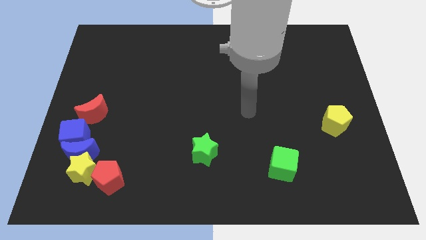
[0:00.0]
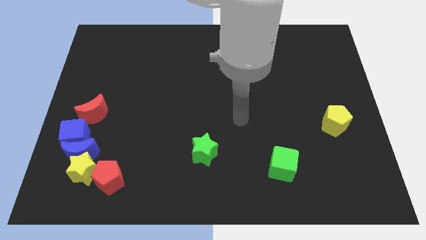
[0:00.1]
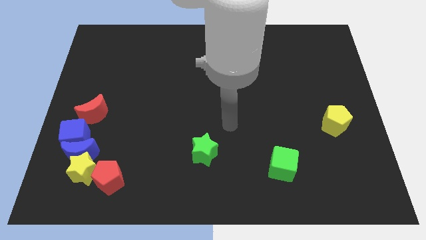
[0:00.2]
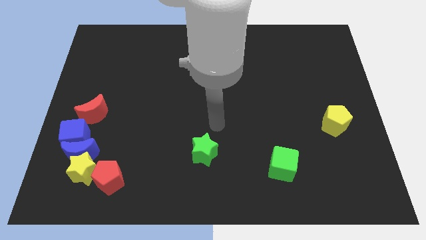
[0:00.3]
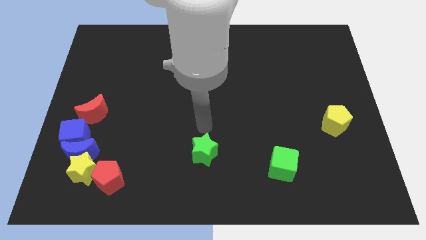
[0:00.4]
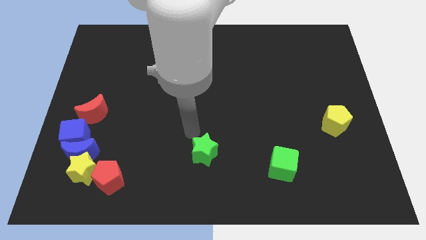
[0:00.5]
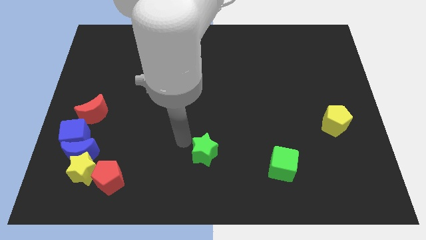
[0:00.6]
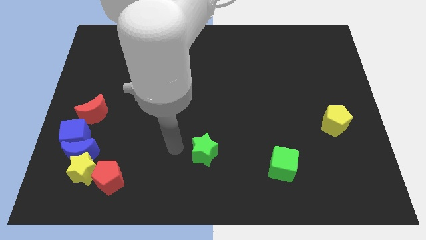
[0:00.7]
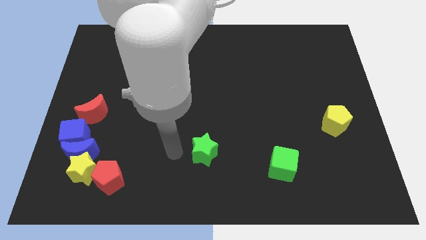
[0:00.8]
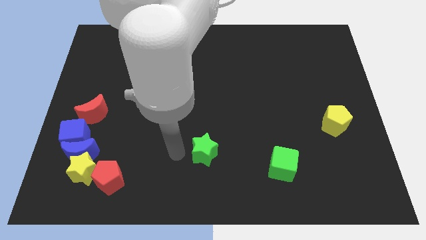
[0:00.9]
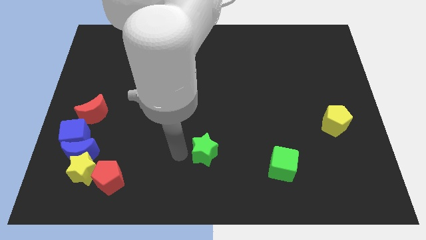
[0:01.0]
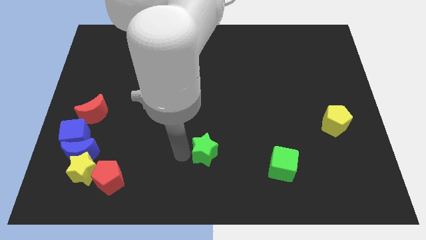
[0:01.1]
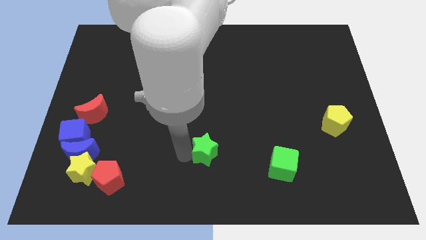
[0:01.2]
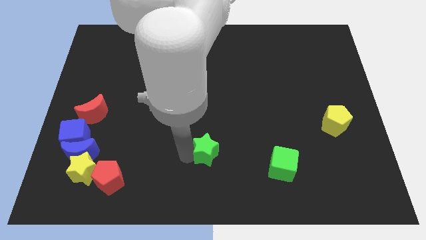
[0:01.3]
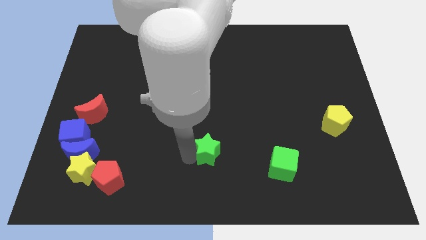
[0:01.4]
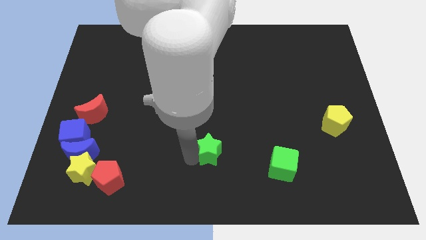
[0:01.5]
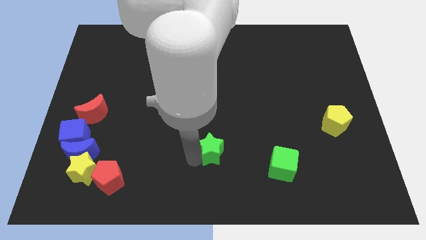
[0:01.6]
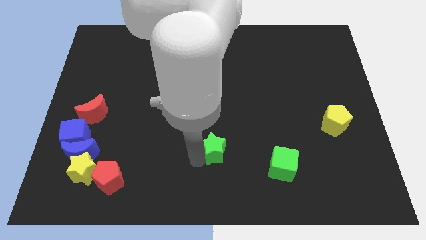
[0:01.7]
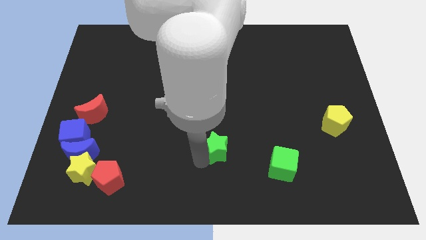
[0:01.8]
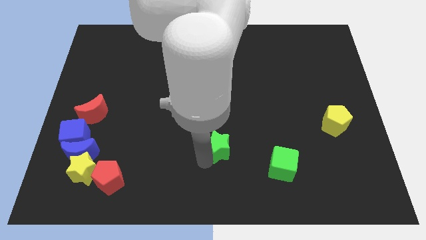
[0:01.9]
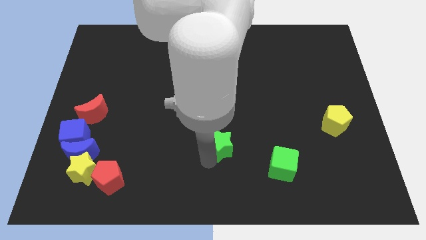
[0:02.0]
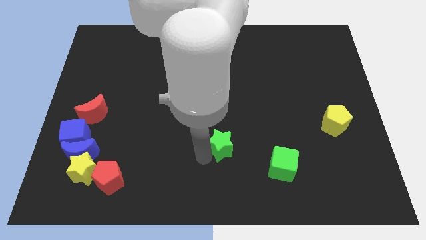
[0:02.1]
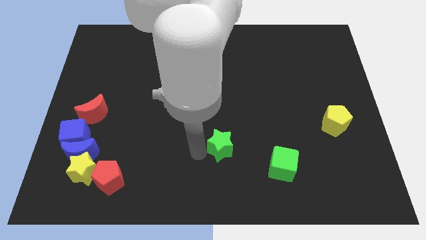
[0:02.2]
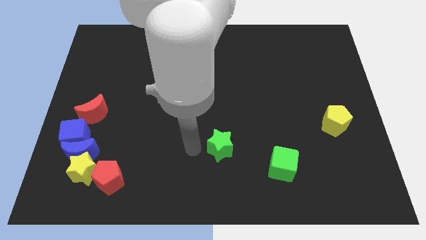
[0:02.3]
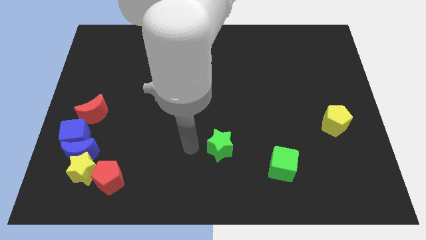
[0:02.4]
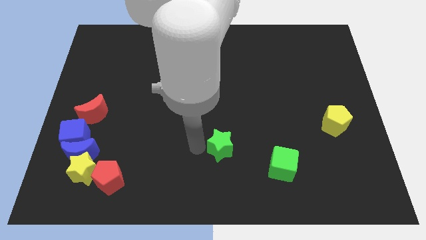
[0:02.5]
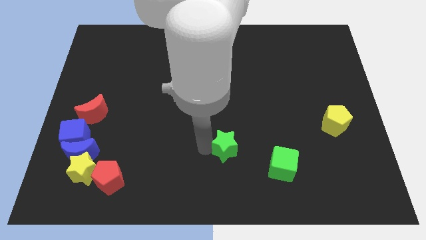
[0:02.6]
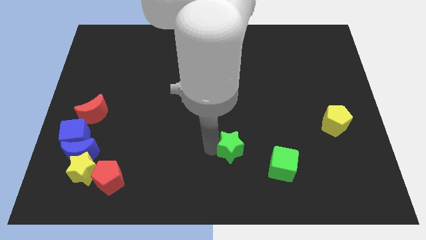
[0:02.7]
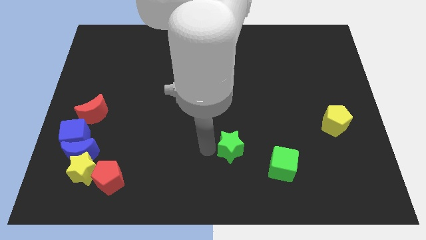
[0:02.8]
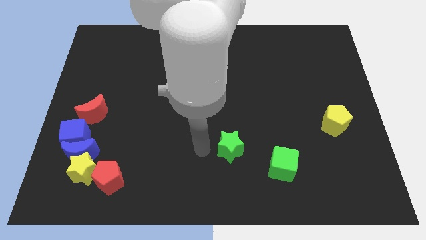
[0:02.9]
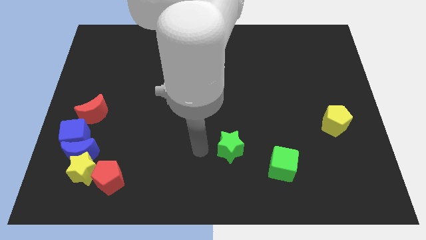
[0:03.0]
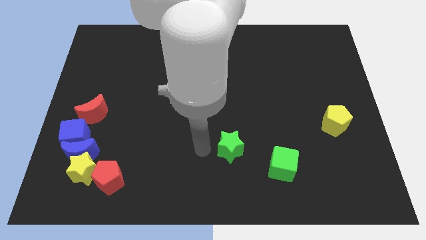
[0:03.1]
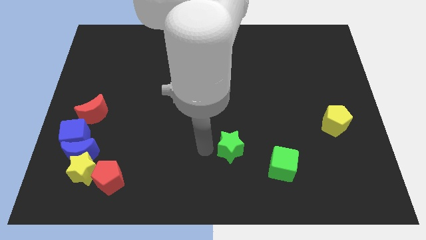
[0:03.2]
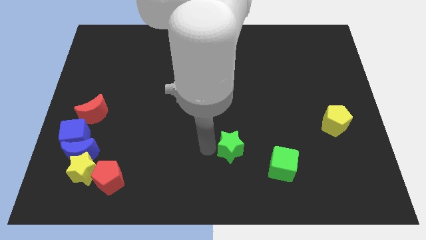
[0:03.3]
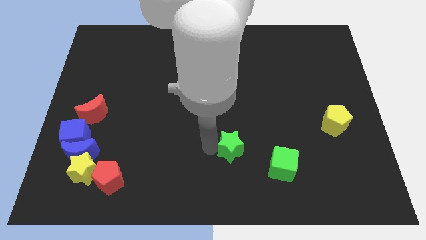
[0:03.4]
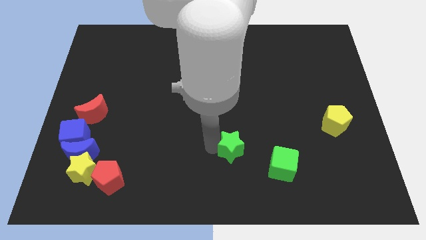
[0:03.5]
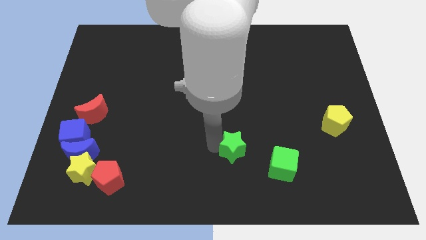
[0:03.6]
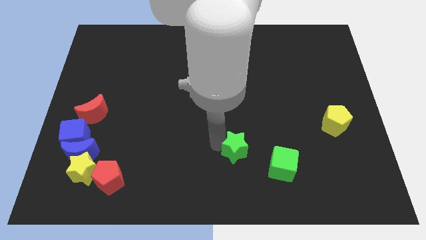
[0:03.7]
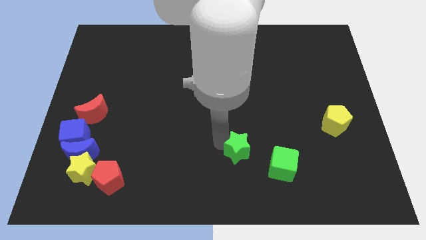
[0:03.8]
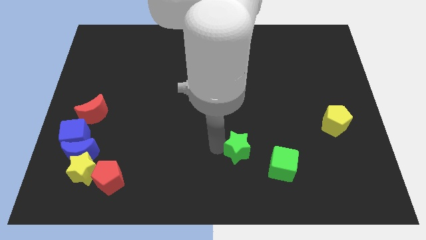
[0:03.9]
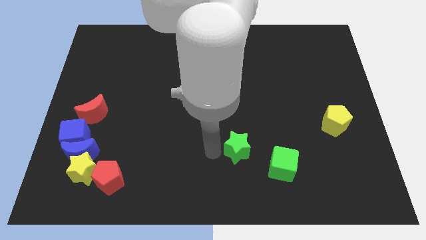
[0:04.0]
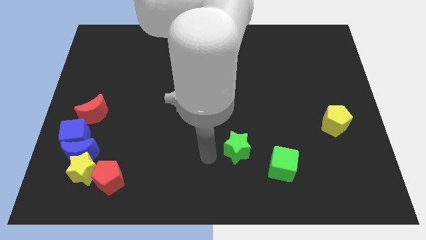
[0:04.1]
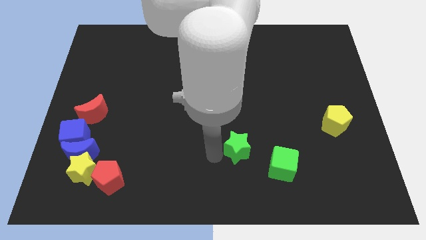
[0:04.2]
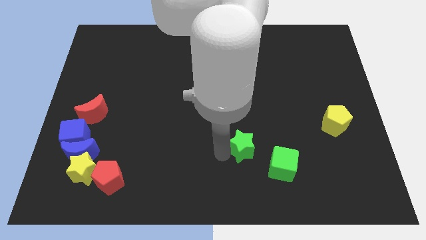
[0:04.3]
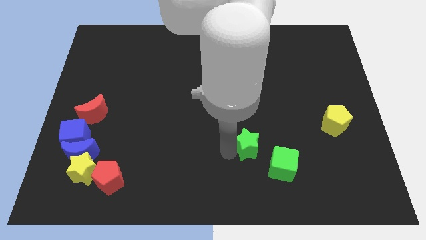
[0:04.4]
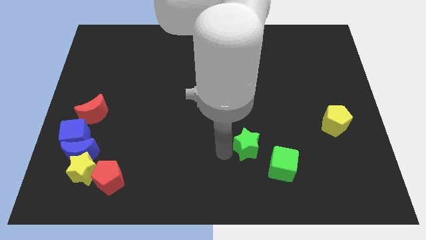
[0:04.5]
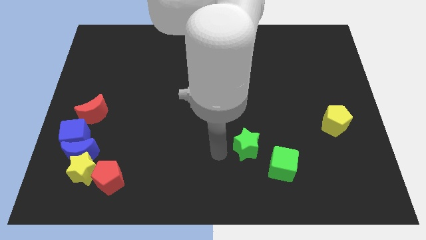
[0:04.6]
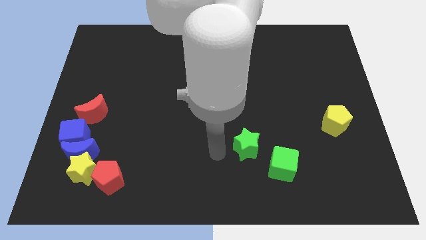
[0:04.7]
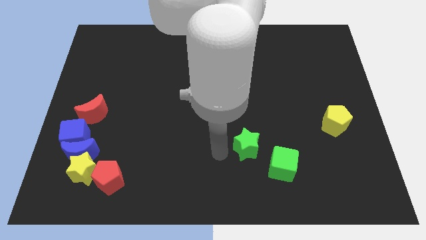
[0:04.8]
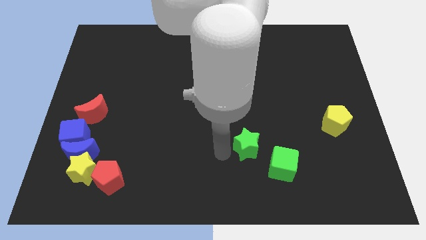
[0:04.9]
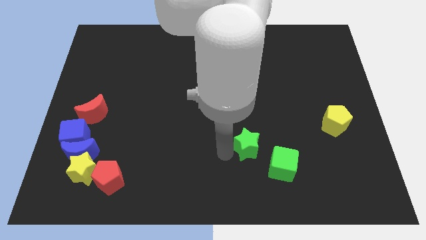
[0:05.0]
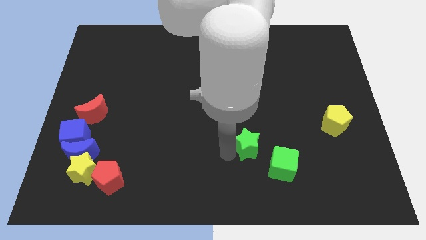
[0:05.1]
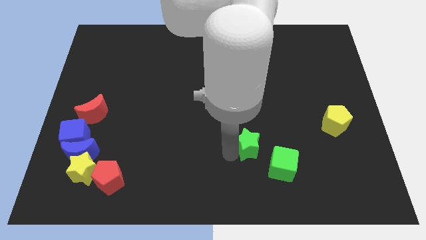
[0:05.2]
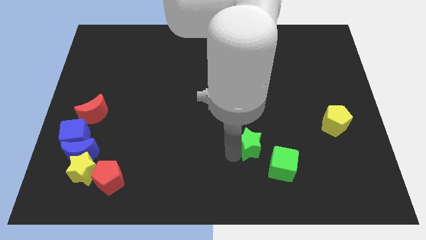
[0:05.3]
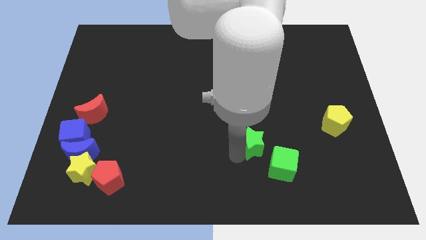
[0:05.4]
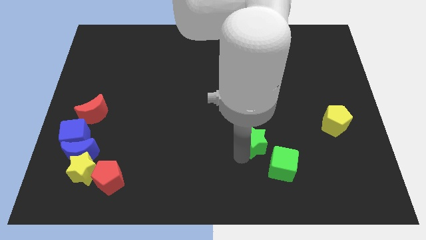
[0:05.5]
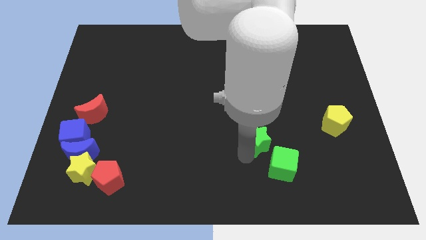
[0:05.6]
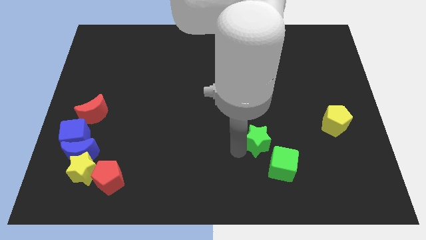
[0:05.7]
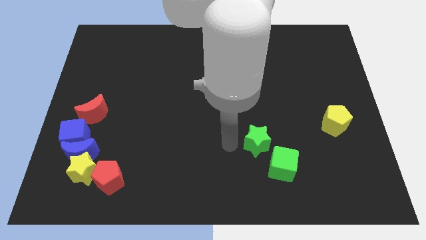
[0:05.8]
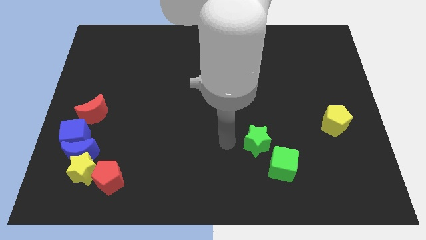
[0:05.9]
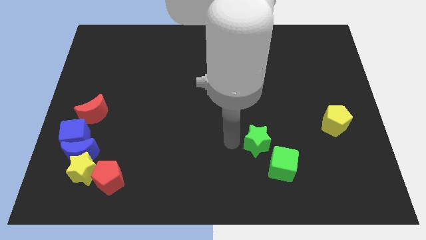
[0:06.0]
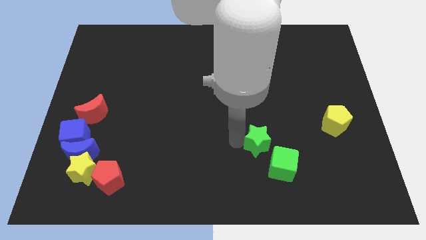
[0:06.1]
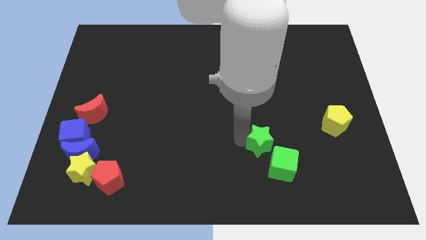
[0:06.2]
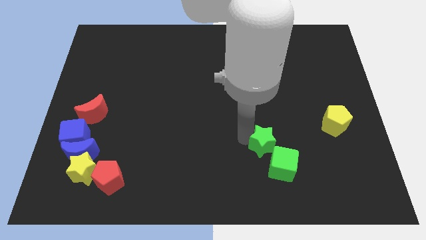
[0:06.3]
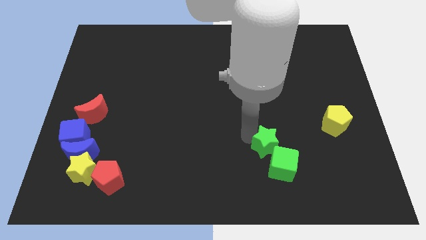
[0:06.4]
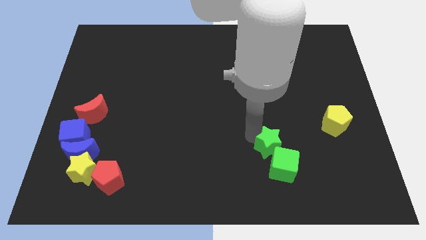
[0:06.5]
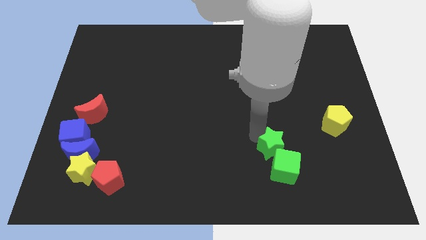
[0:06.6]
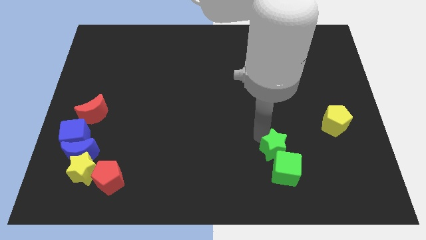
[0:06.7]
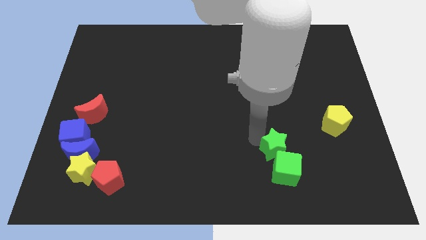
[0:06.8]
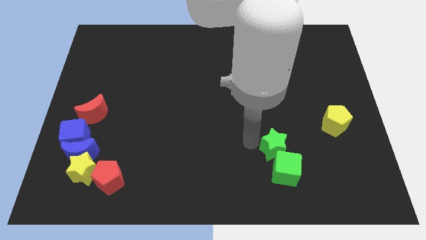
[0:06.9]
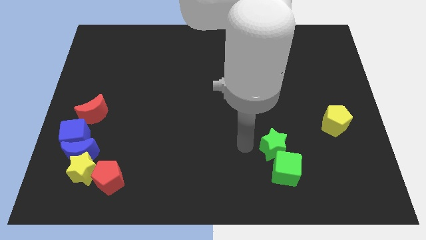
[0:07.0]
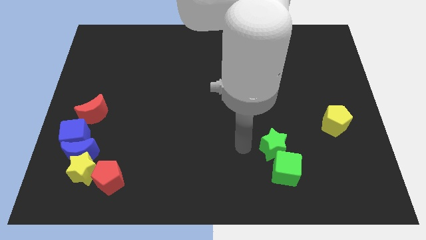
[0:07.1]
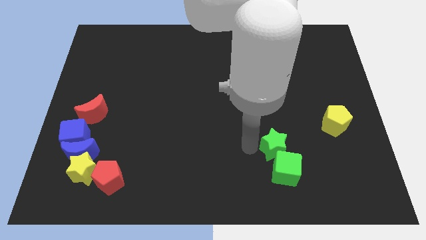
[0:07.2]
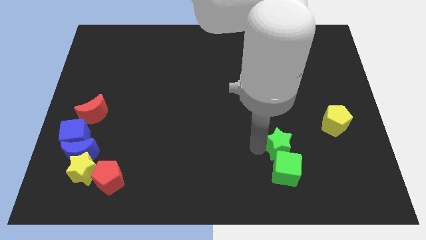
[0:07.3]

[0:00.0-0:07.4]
push the green star to the top right of the green cube

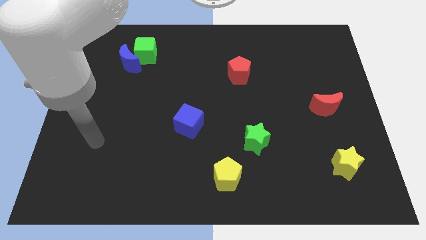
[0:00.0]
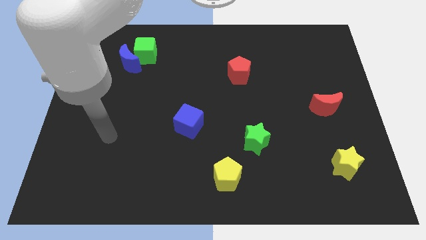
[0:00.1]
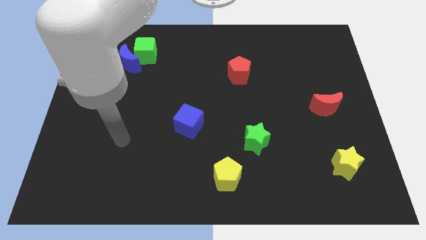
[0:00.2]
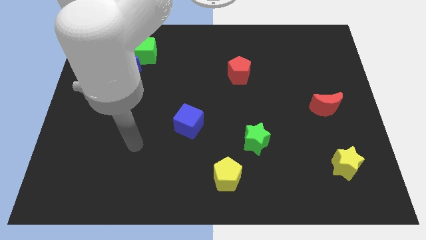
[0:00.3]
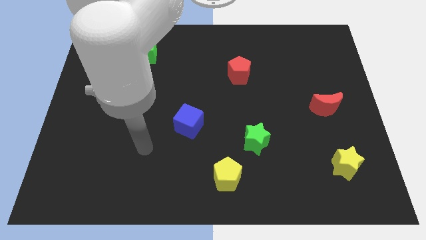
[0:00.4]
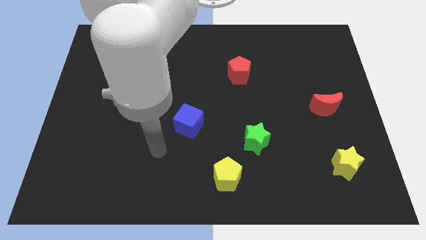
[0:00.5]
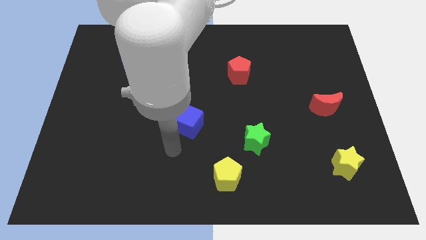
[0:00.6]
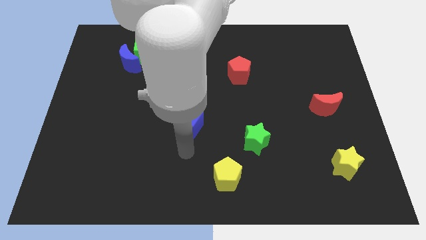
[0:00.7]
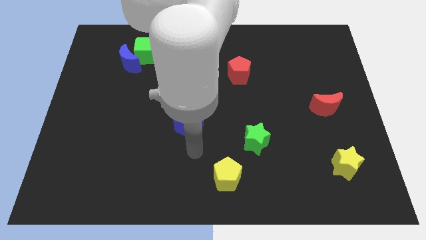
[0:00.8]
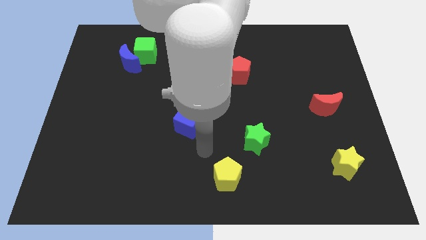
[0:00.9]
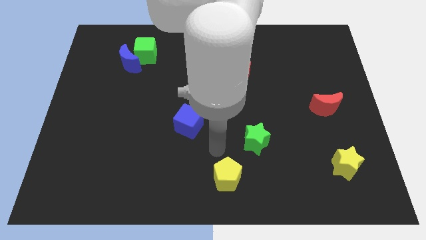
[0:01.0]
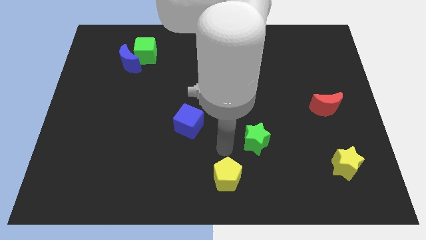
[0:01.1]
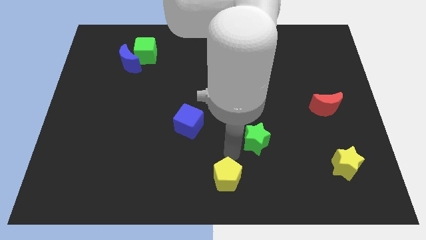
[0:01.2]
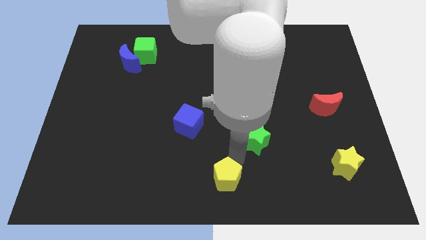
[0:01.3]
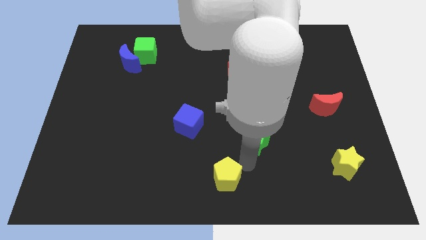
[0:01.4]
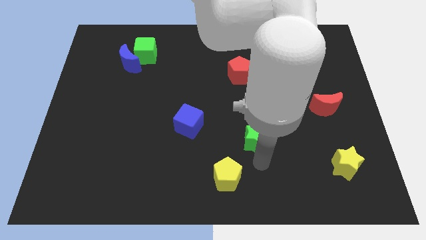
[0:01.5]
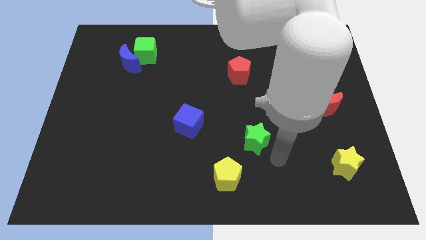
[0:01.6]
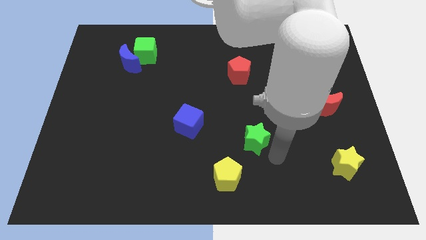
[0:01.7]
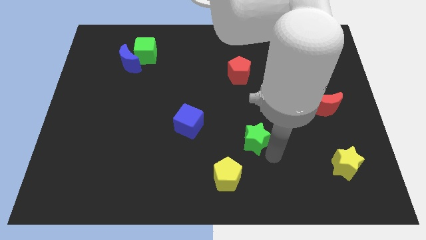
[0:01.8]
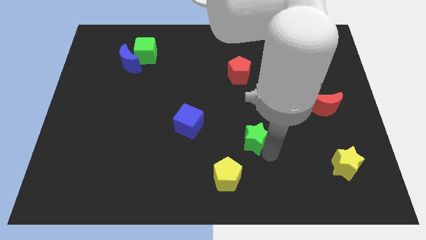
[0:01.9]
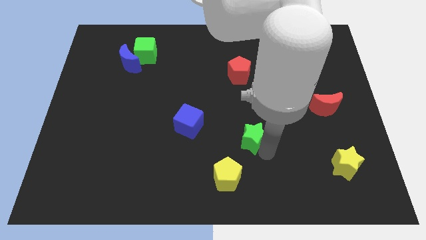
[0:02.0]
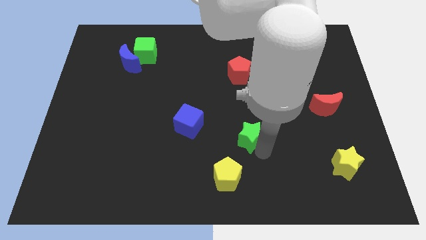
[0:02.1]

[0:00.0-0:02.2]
move the green star right of the blue cube
